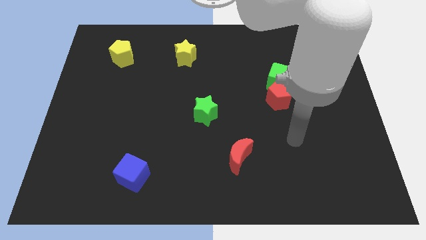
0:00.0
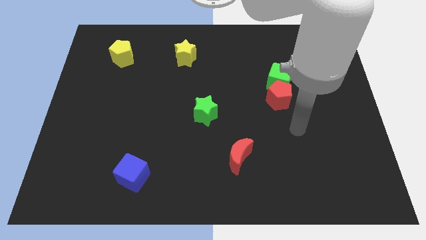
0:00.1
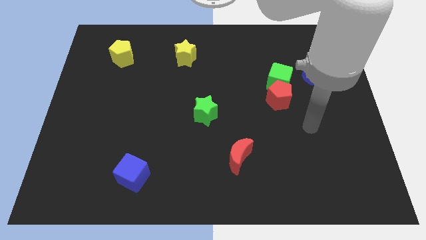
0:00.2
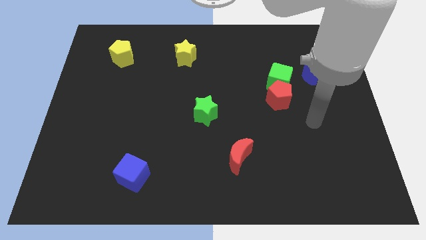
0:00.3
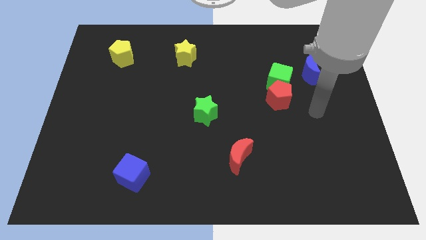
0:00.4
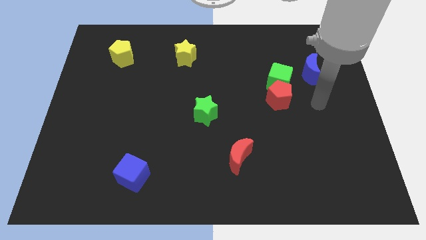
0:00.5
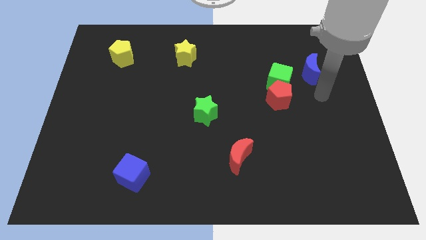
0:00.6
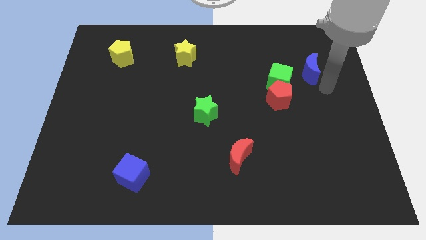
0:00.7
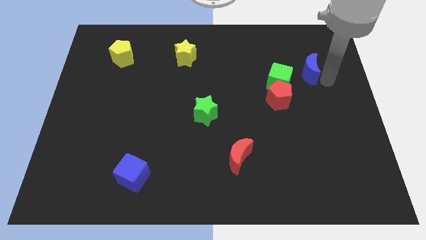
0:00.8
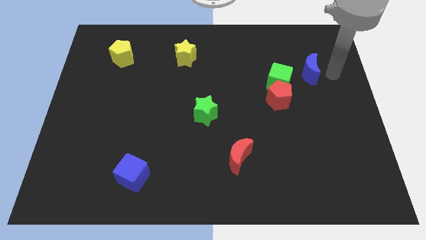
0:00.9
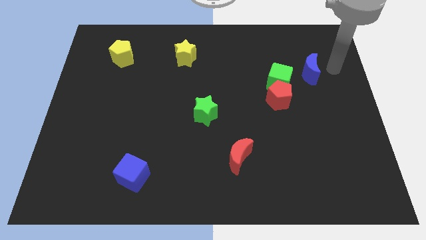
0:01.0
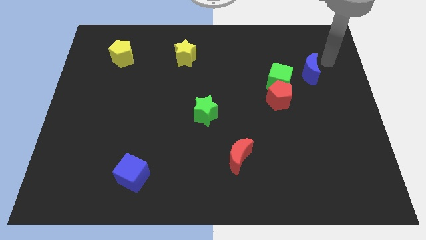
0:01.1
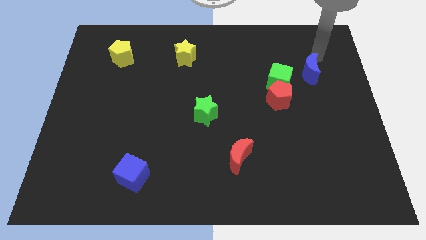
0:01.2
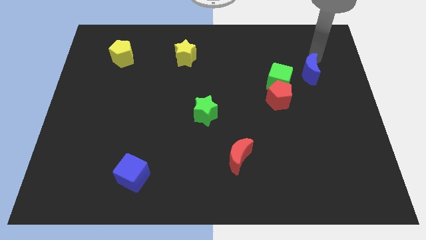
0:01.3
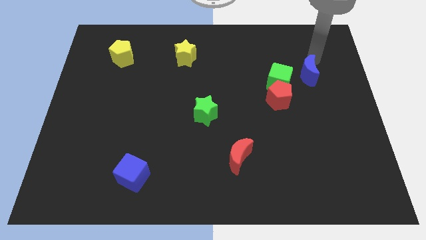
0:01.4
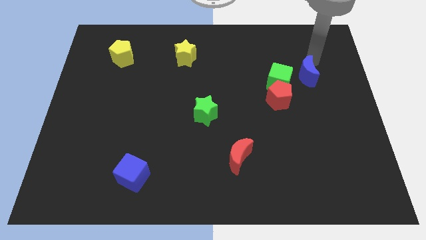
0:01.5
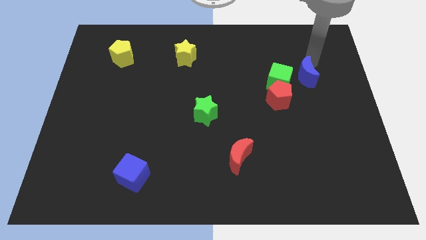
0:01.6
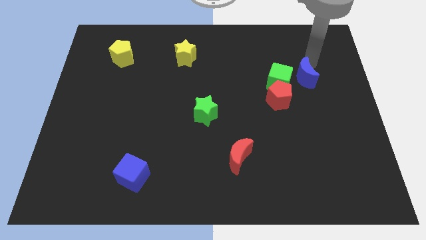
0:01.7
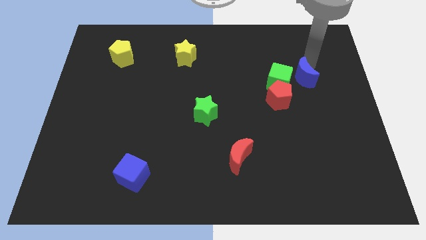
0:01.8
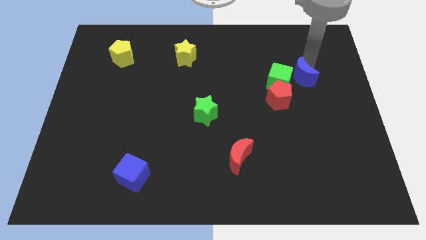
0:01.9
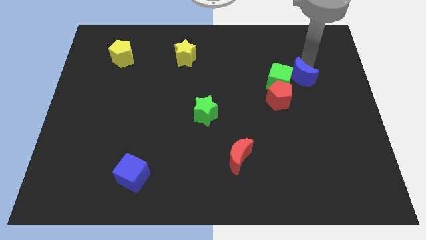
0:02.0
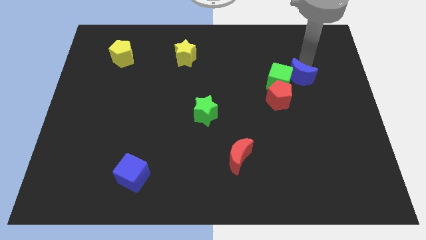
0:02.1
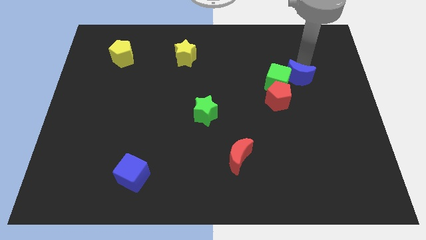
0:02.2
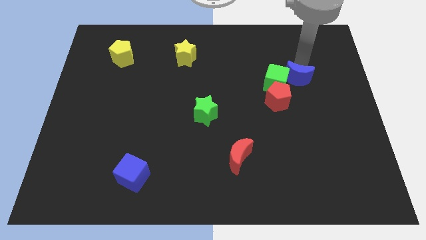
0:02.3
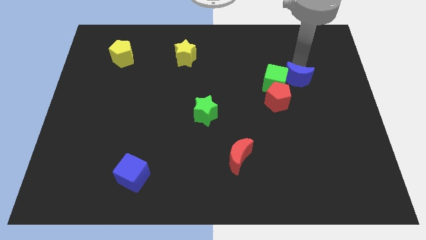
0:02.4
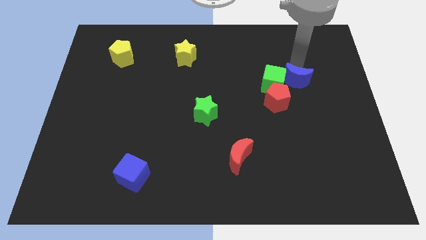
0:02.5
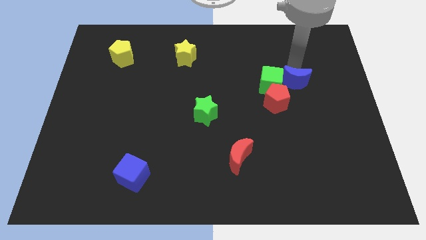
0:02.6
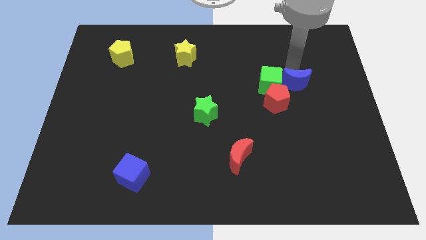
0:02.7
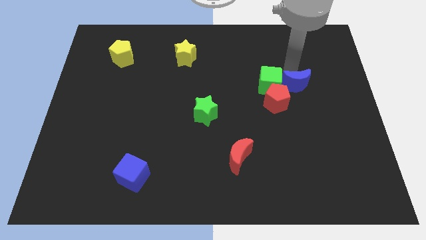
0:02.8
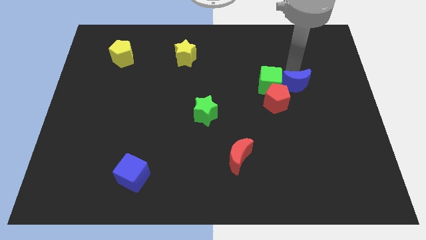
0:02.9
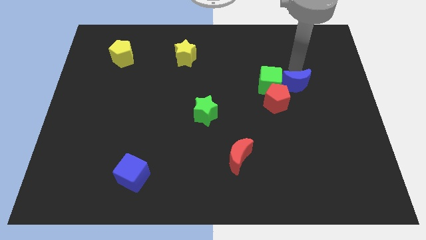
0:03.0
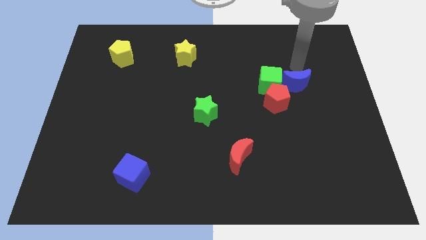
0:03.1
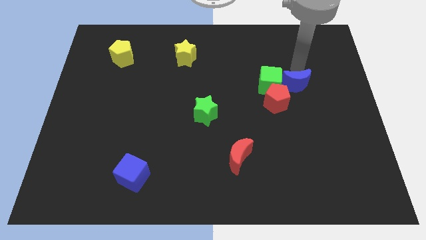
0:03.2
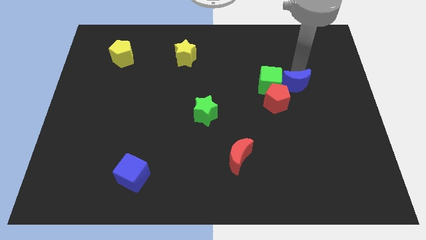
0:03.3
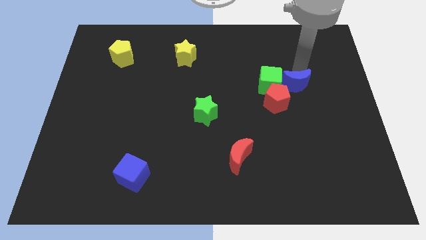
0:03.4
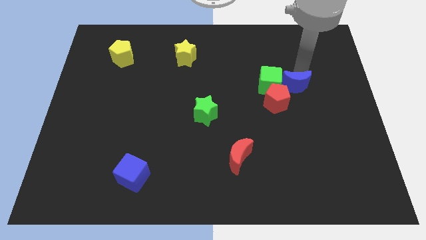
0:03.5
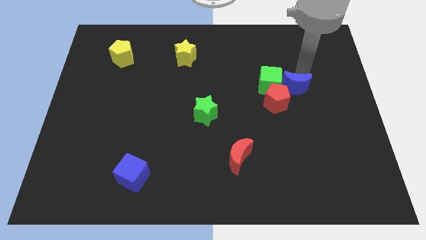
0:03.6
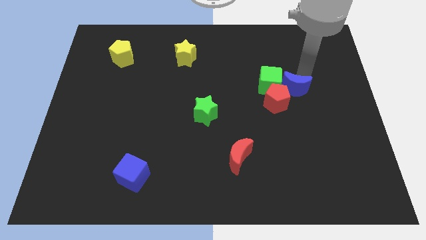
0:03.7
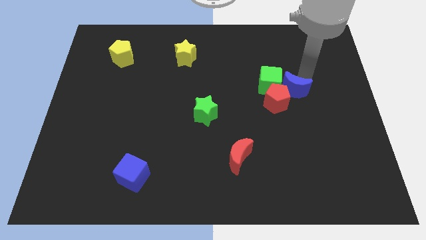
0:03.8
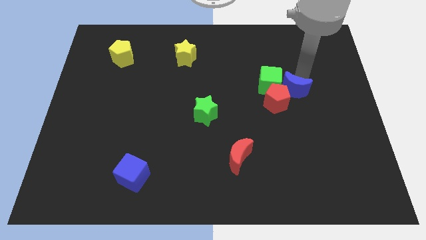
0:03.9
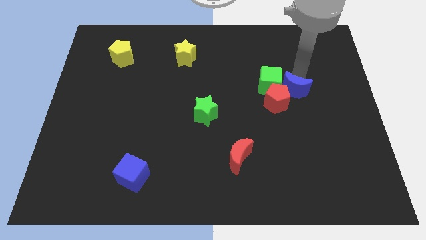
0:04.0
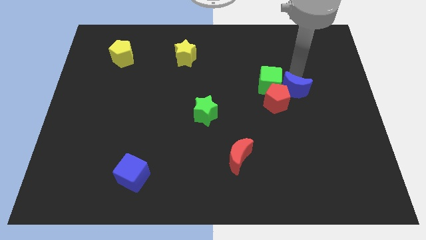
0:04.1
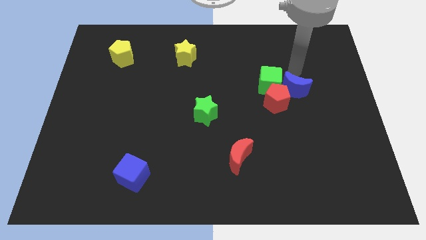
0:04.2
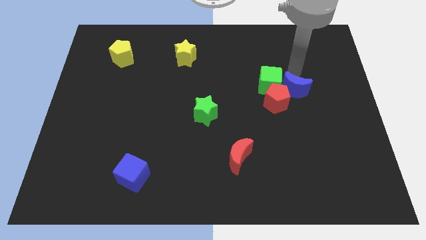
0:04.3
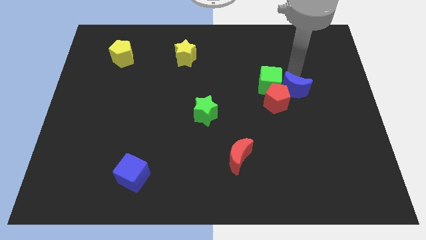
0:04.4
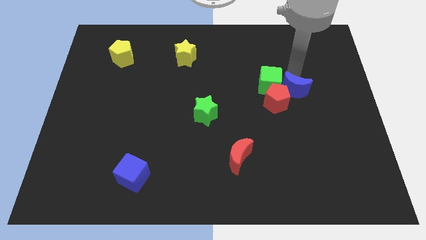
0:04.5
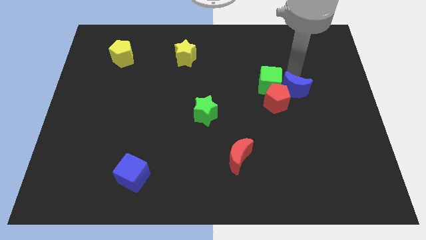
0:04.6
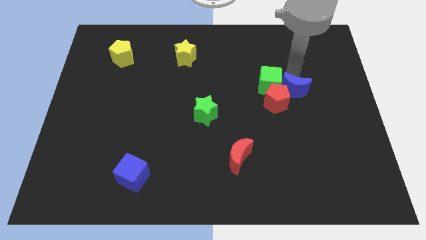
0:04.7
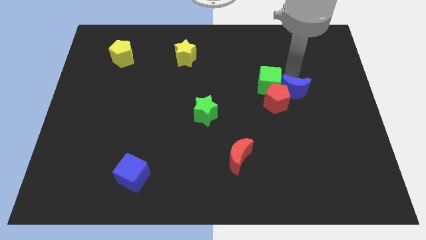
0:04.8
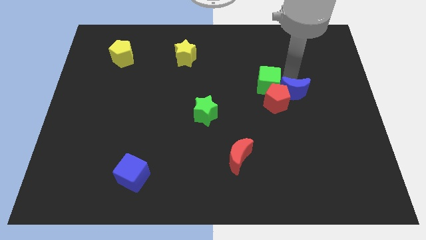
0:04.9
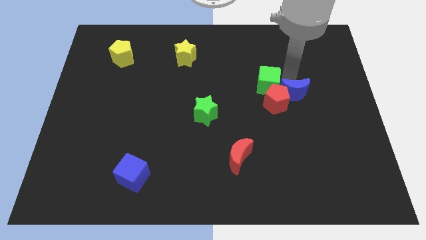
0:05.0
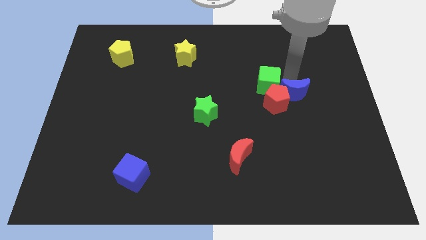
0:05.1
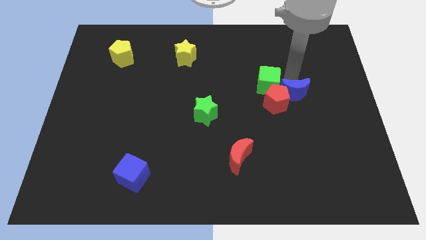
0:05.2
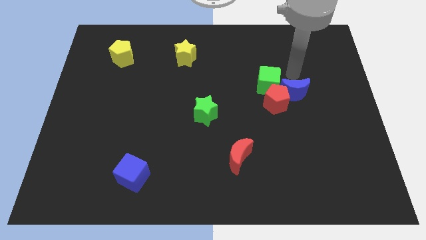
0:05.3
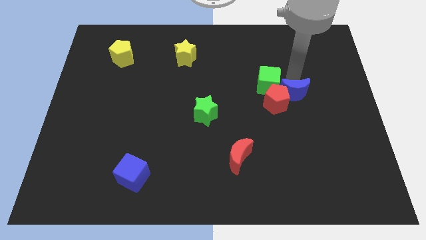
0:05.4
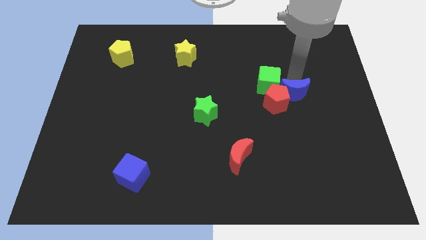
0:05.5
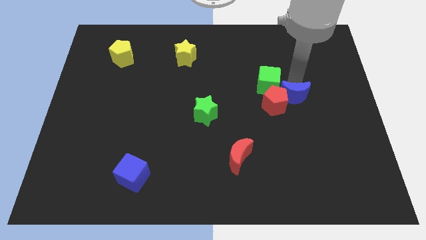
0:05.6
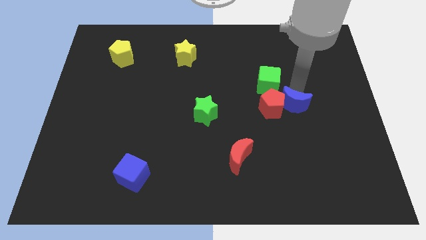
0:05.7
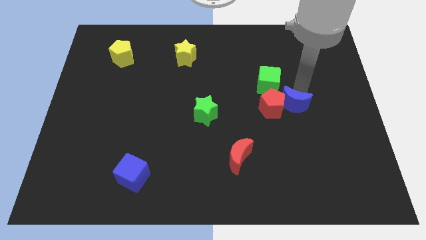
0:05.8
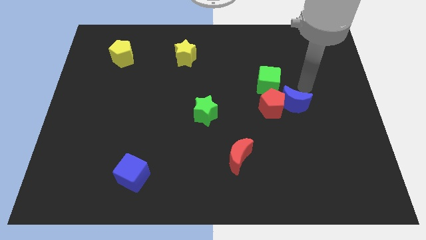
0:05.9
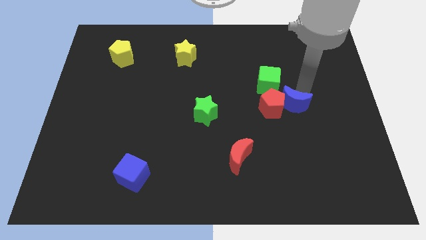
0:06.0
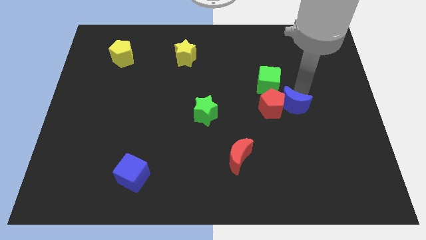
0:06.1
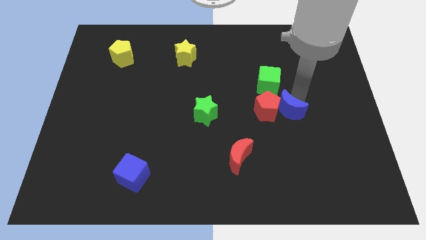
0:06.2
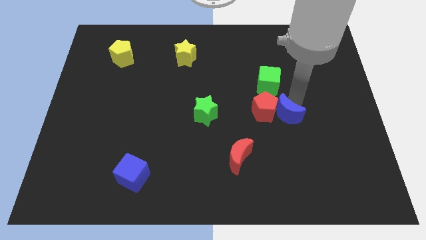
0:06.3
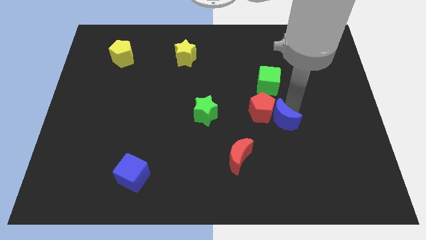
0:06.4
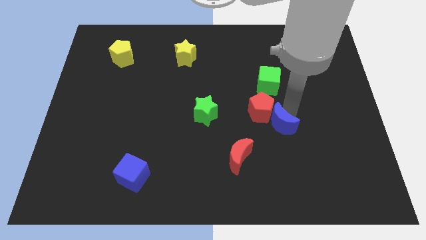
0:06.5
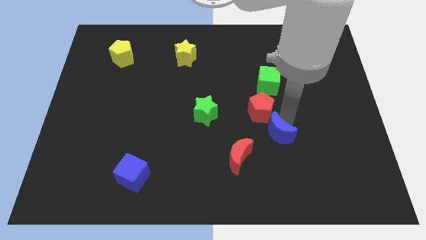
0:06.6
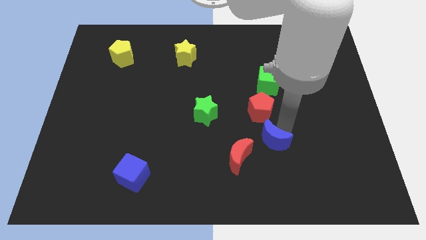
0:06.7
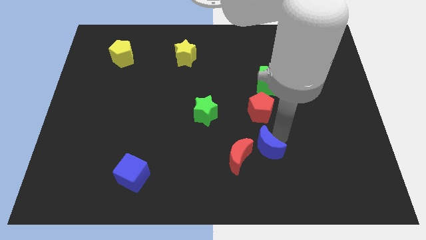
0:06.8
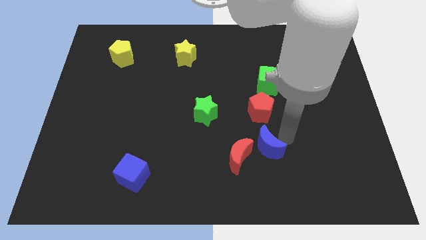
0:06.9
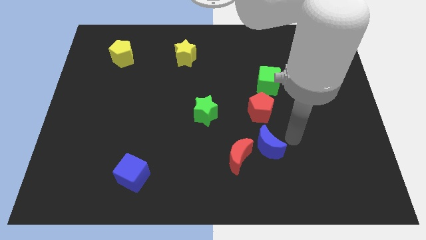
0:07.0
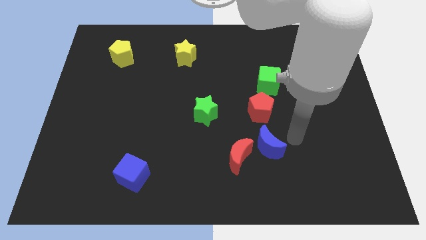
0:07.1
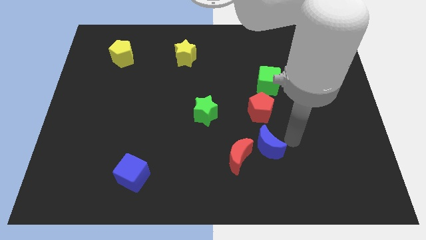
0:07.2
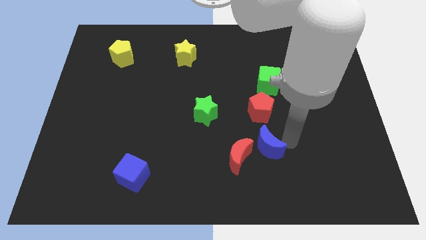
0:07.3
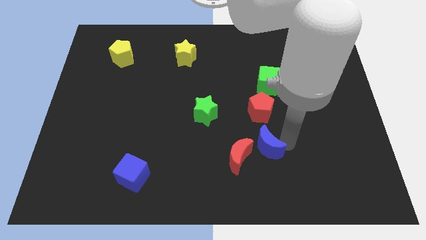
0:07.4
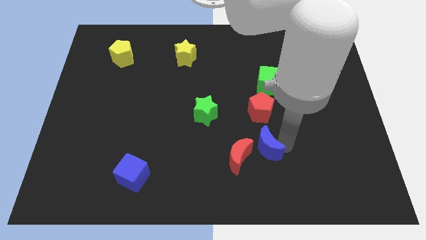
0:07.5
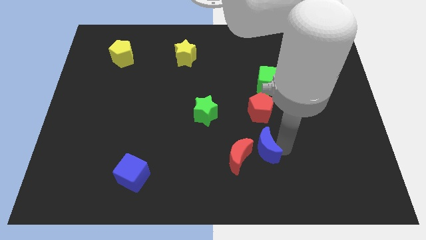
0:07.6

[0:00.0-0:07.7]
put the blue moon to the red moon
